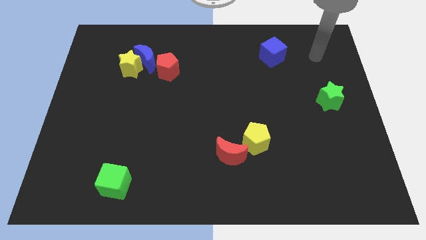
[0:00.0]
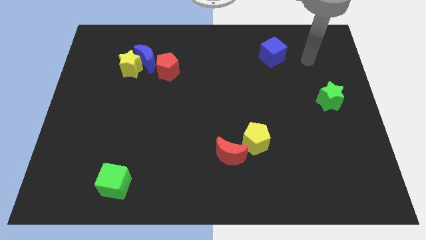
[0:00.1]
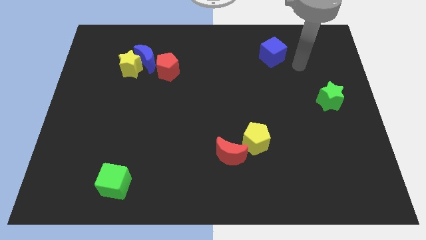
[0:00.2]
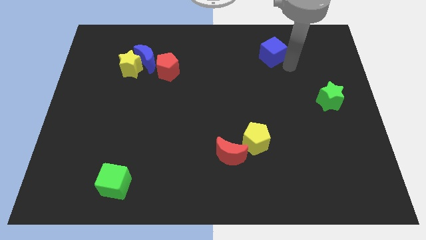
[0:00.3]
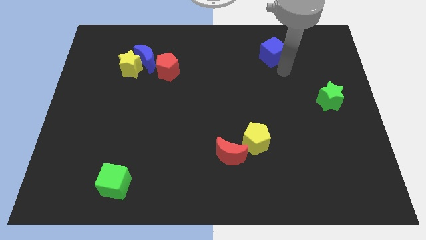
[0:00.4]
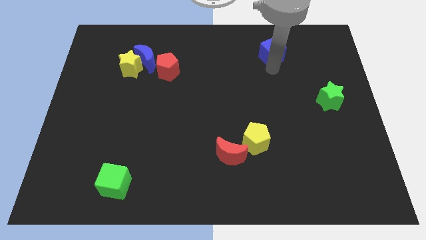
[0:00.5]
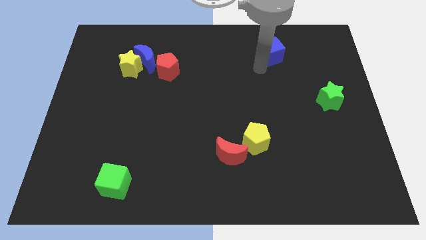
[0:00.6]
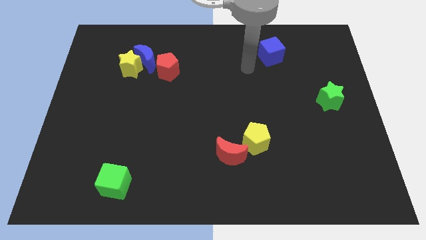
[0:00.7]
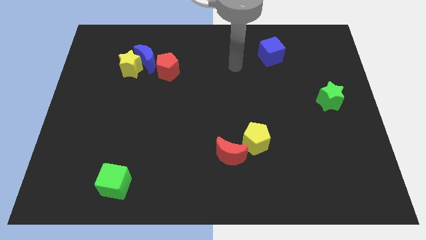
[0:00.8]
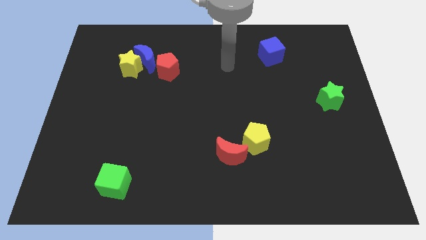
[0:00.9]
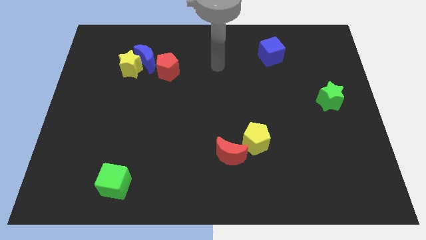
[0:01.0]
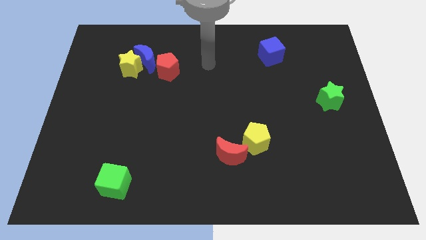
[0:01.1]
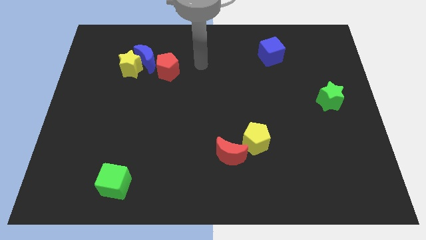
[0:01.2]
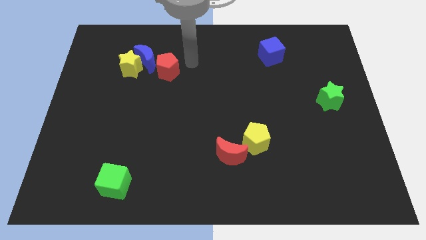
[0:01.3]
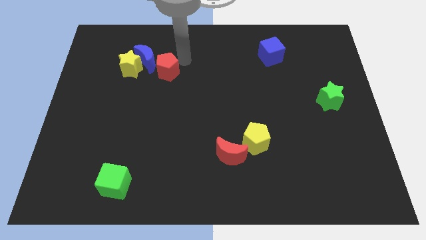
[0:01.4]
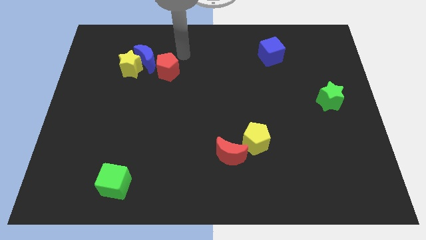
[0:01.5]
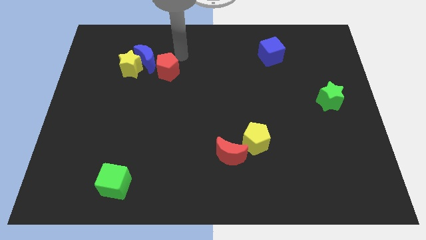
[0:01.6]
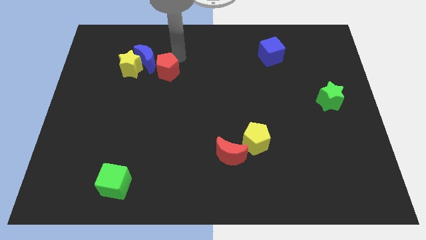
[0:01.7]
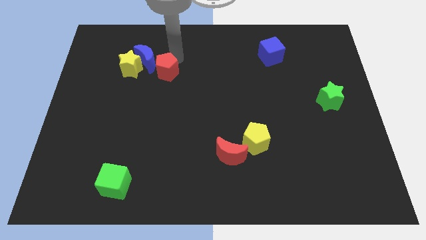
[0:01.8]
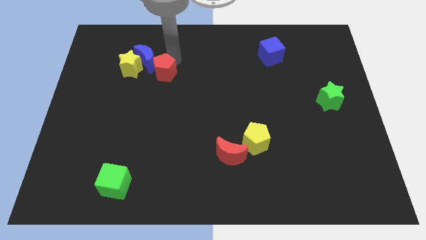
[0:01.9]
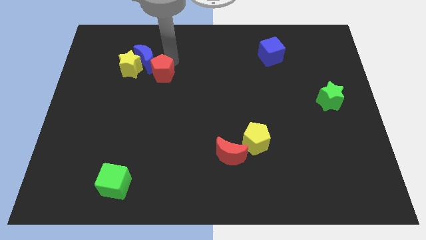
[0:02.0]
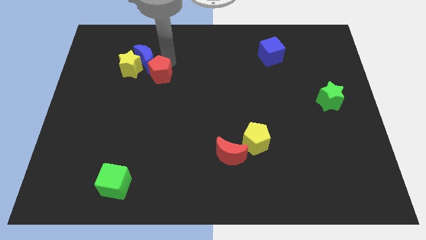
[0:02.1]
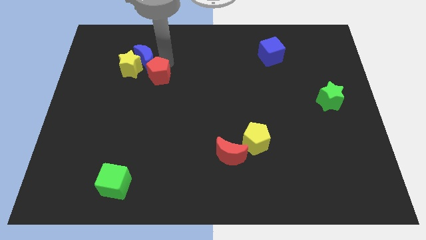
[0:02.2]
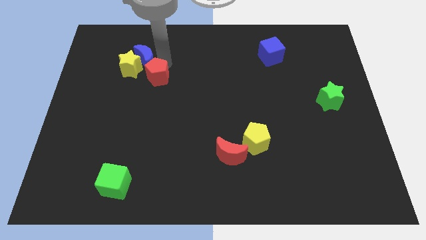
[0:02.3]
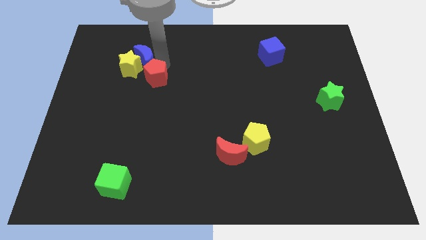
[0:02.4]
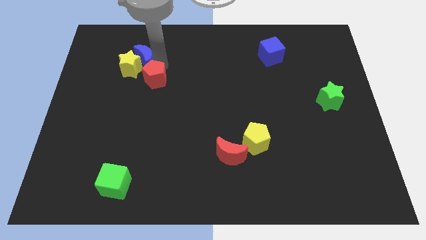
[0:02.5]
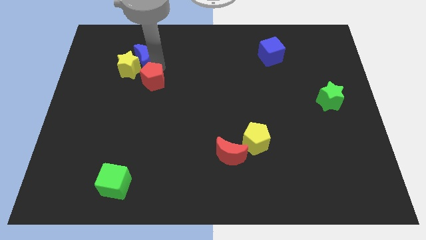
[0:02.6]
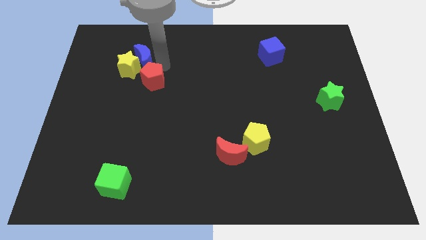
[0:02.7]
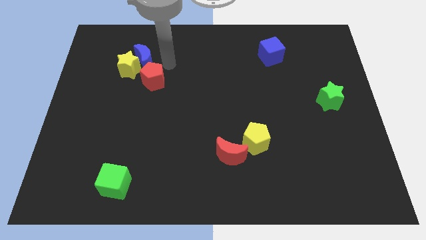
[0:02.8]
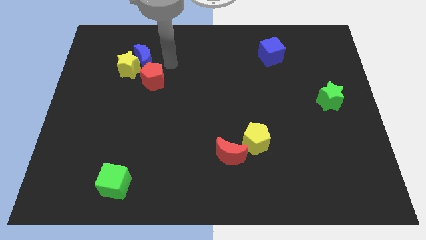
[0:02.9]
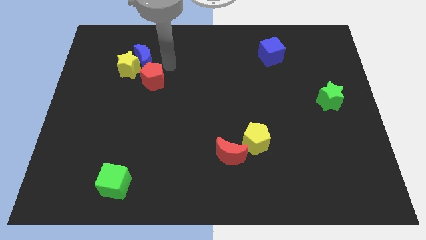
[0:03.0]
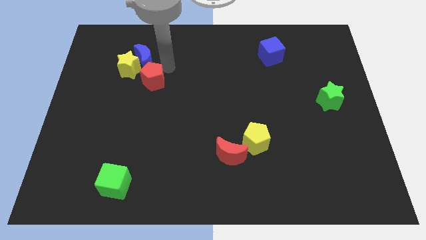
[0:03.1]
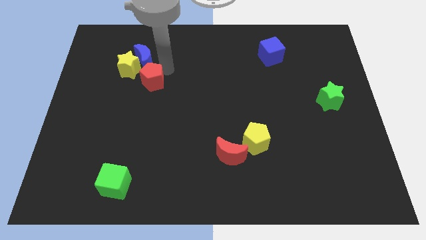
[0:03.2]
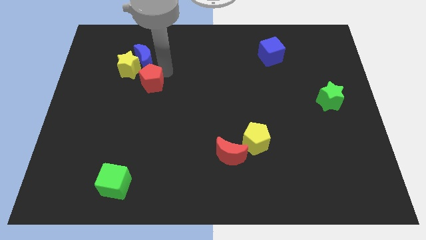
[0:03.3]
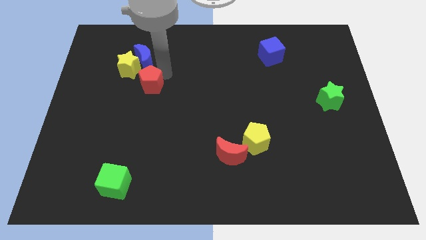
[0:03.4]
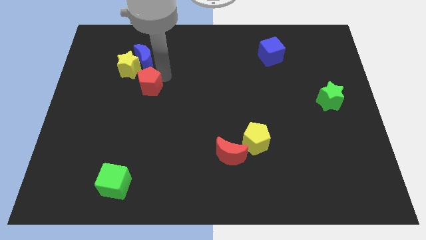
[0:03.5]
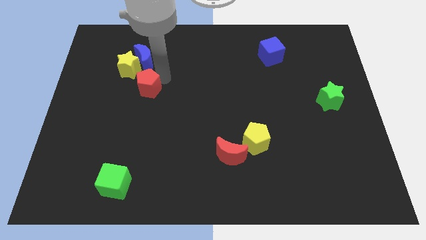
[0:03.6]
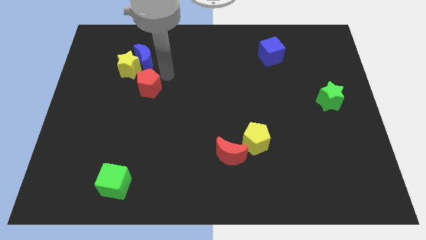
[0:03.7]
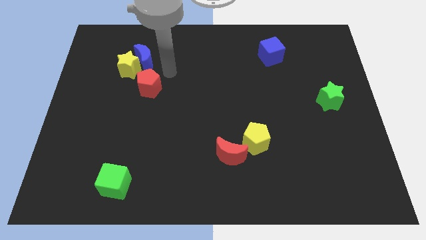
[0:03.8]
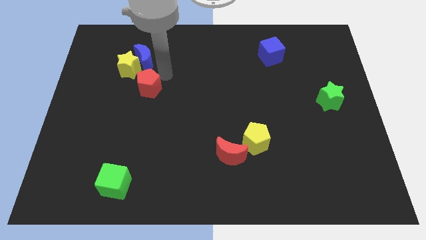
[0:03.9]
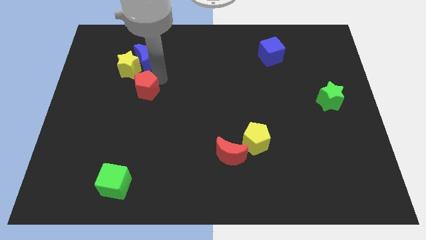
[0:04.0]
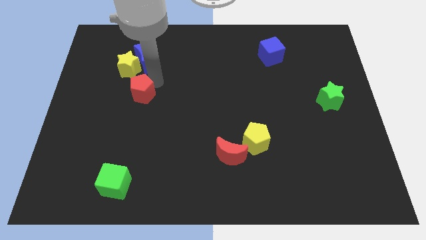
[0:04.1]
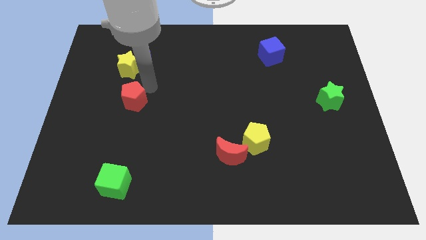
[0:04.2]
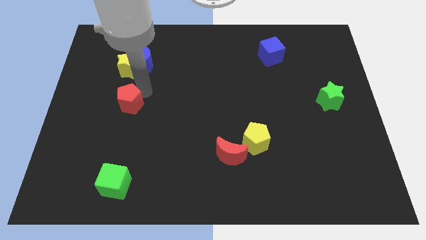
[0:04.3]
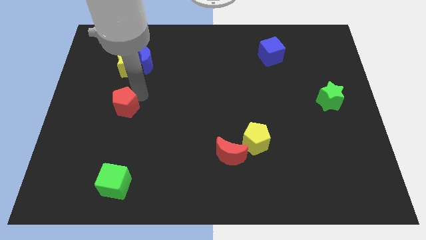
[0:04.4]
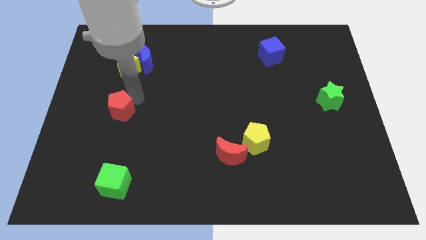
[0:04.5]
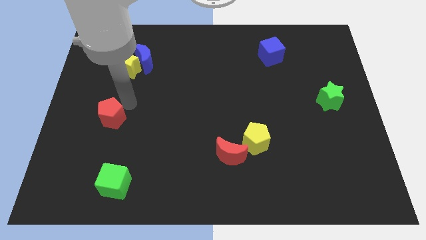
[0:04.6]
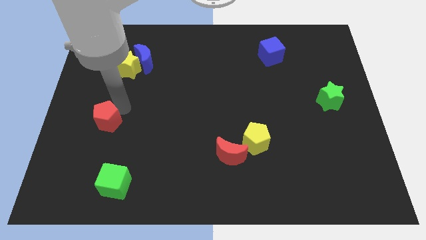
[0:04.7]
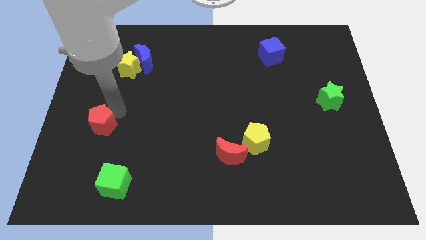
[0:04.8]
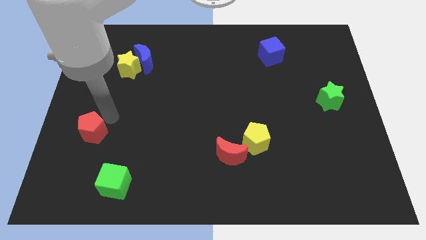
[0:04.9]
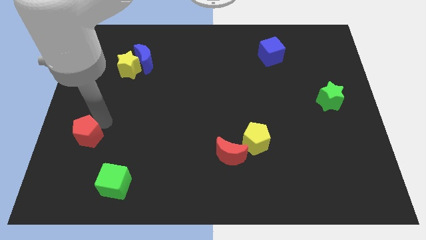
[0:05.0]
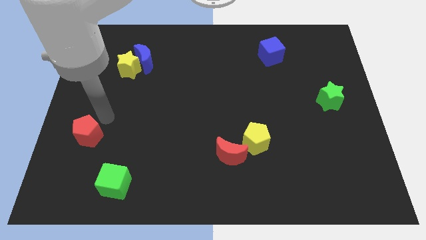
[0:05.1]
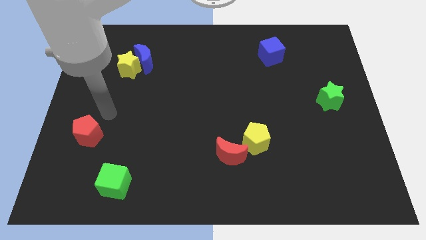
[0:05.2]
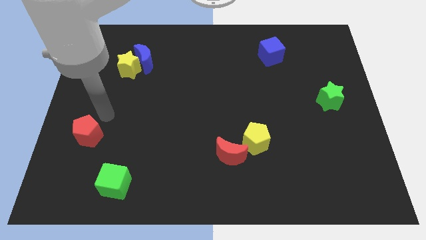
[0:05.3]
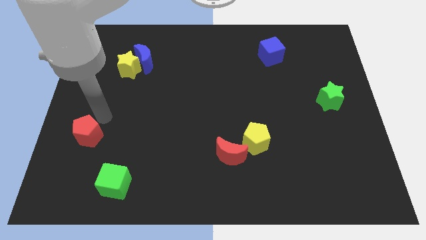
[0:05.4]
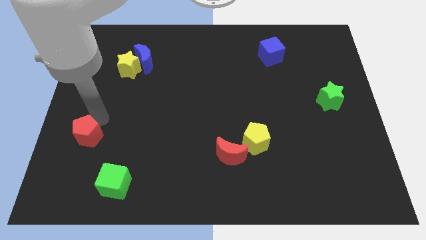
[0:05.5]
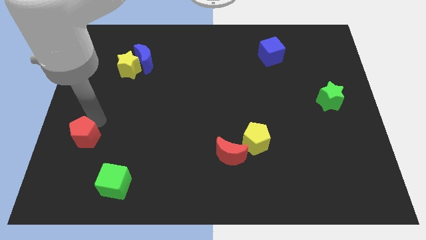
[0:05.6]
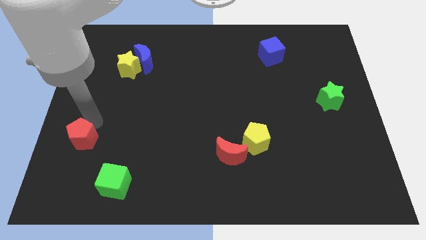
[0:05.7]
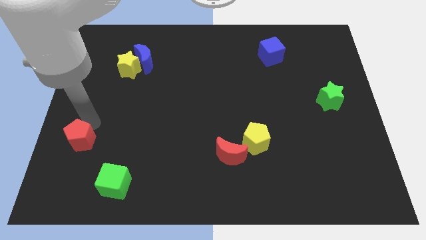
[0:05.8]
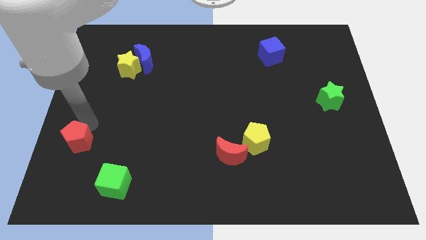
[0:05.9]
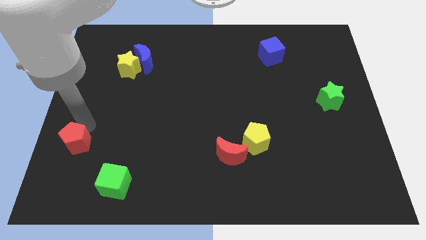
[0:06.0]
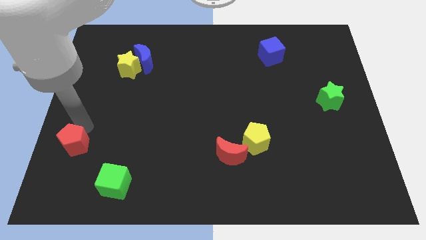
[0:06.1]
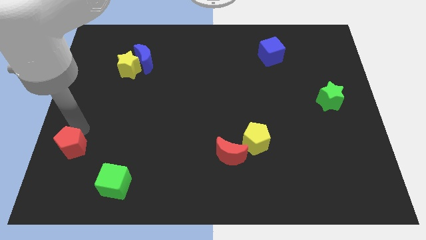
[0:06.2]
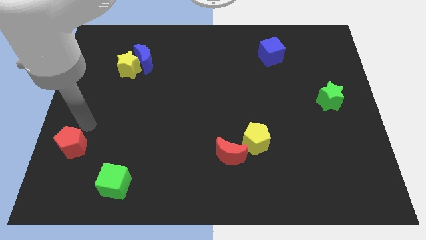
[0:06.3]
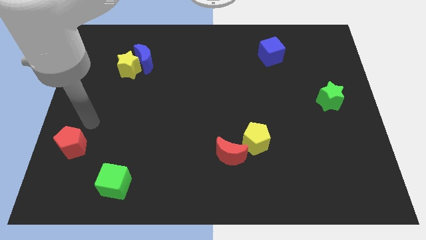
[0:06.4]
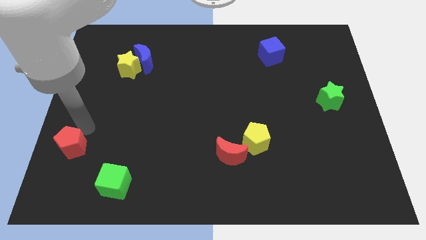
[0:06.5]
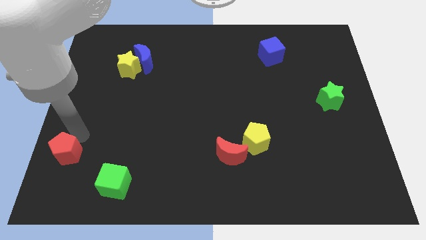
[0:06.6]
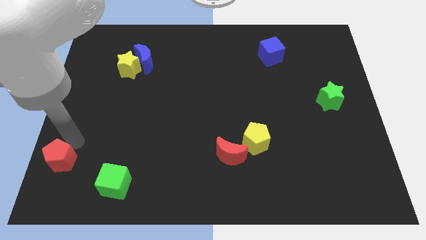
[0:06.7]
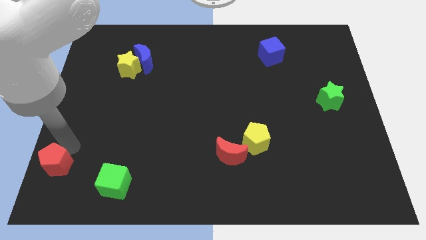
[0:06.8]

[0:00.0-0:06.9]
put the red pentagon to the lower left corner

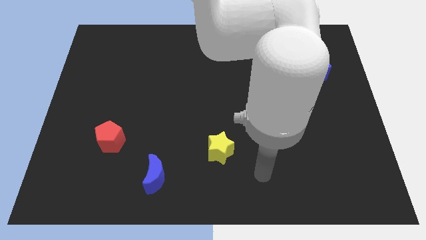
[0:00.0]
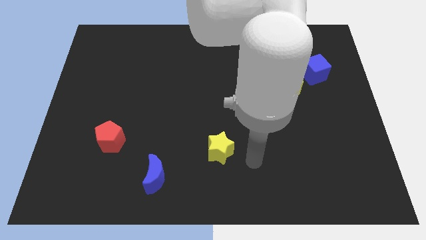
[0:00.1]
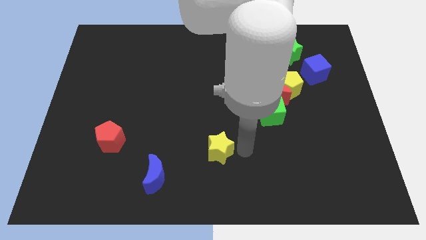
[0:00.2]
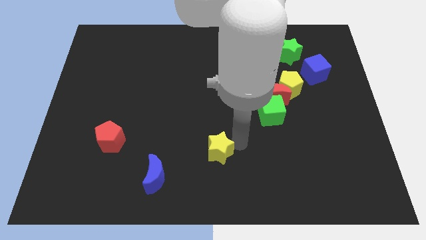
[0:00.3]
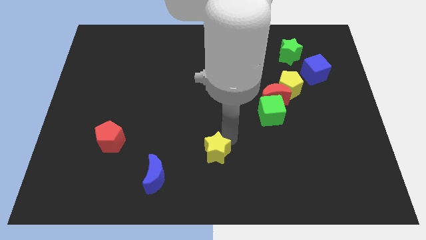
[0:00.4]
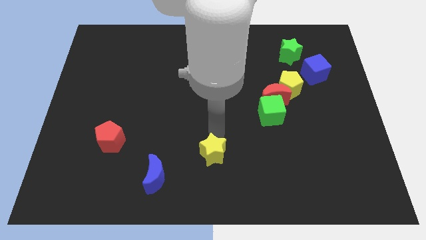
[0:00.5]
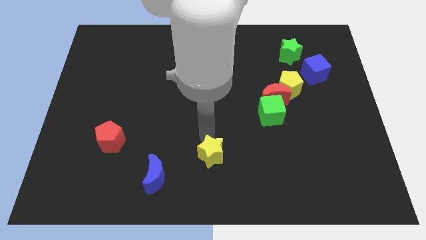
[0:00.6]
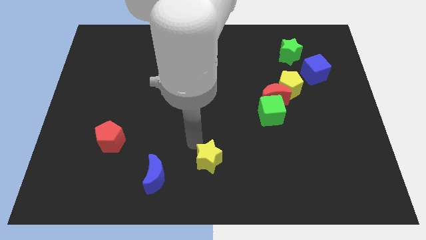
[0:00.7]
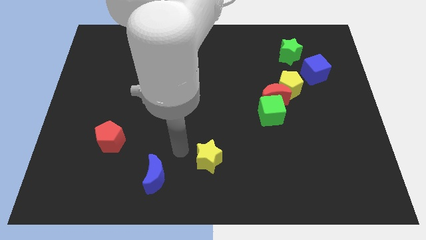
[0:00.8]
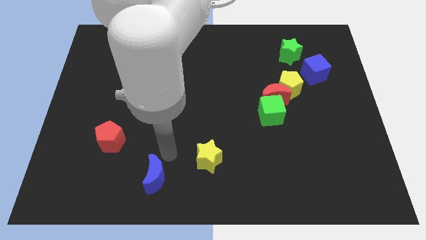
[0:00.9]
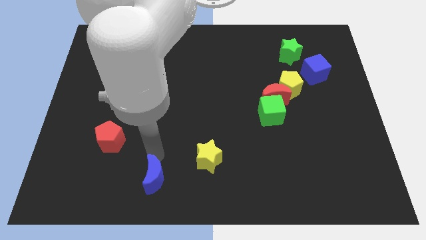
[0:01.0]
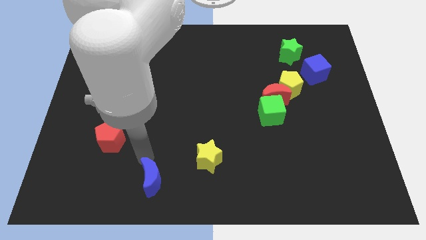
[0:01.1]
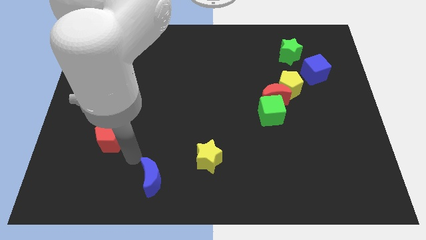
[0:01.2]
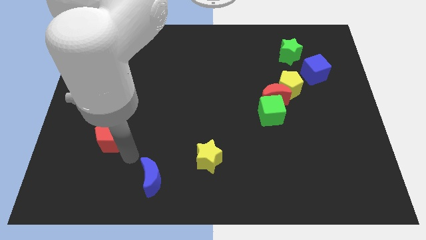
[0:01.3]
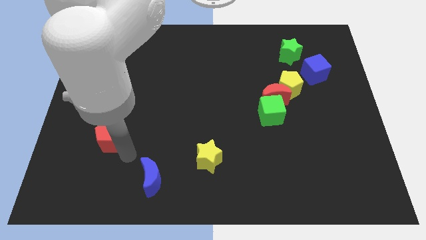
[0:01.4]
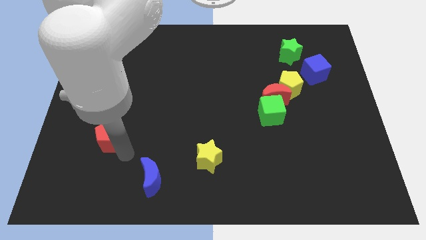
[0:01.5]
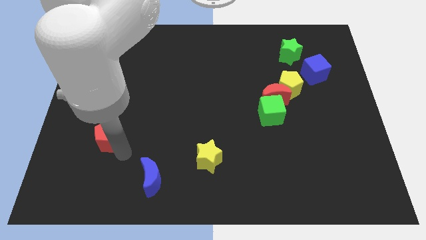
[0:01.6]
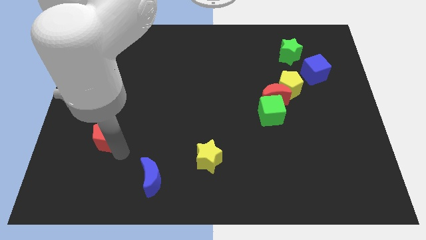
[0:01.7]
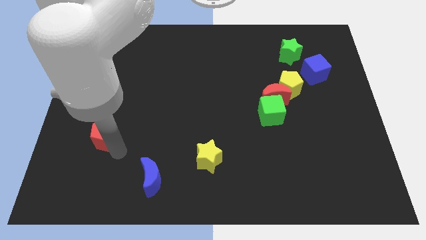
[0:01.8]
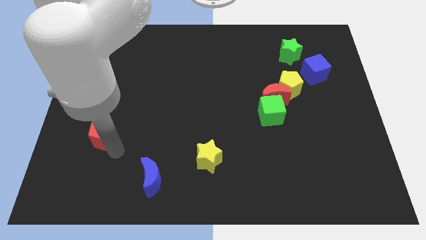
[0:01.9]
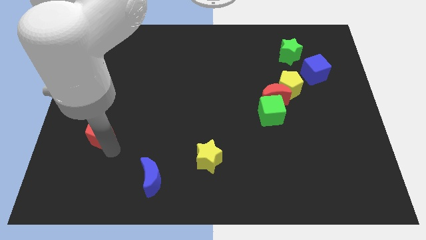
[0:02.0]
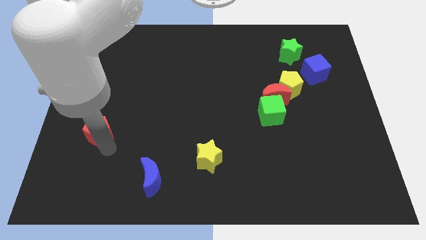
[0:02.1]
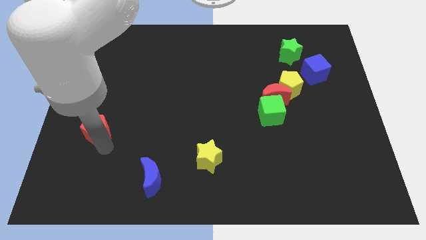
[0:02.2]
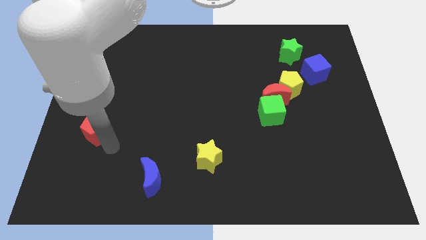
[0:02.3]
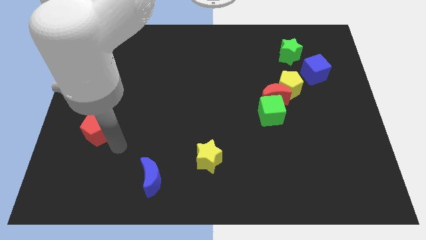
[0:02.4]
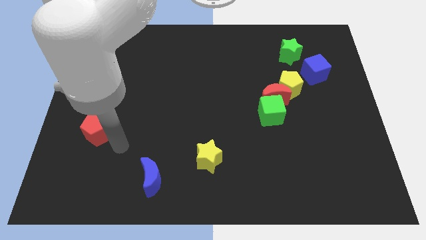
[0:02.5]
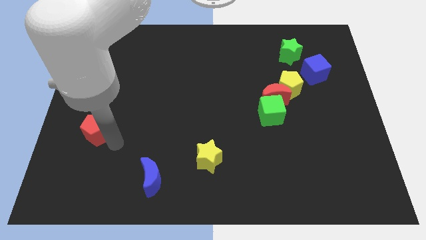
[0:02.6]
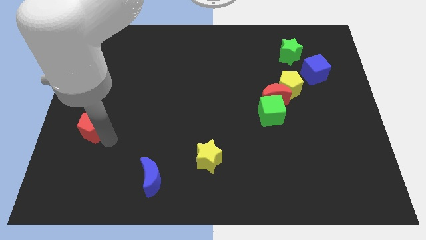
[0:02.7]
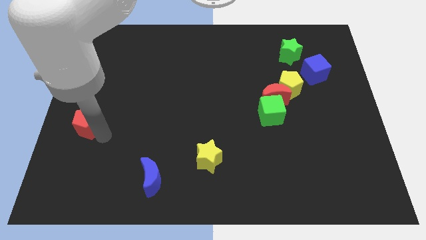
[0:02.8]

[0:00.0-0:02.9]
push the red pentagon to the left side
